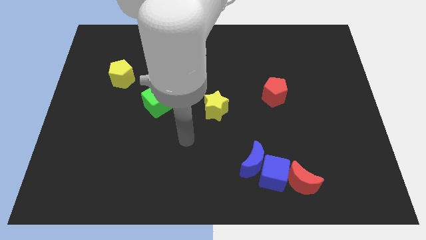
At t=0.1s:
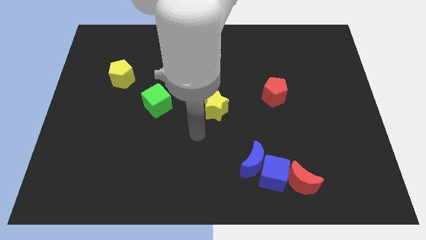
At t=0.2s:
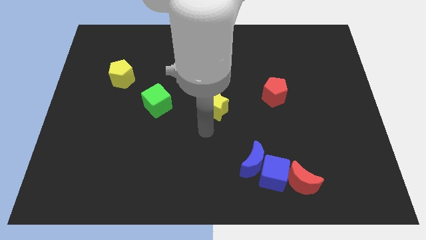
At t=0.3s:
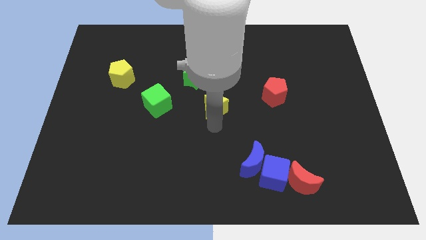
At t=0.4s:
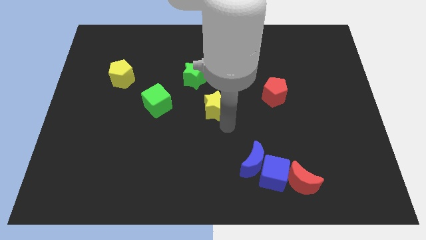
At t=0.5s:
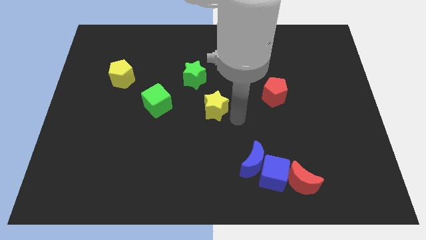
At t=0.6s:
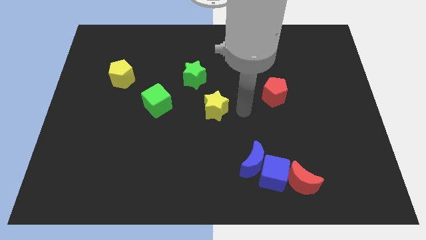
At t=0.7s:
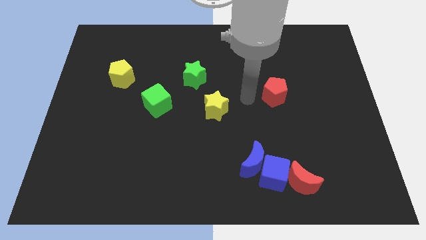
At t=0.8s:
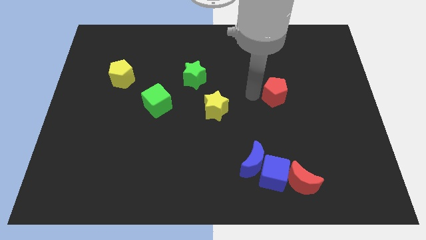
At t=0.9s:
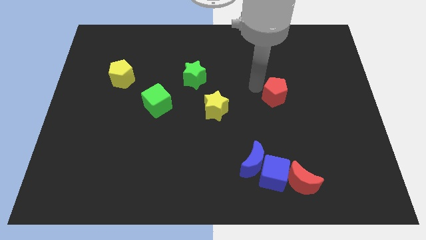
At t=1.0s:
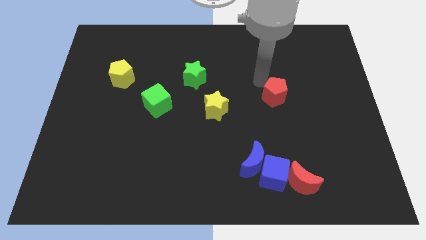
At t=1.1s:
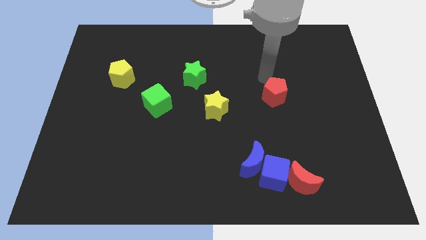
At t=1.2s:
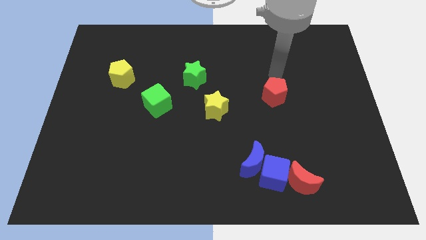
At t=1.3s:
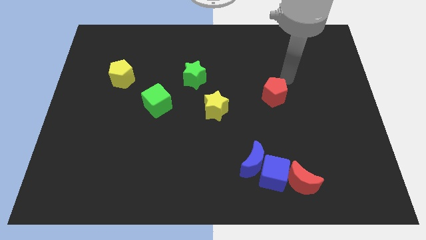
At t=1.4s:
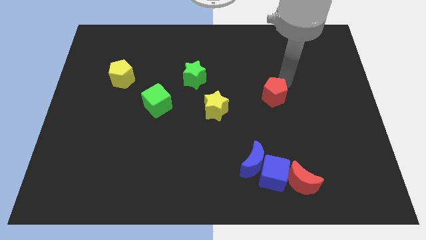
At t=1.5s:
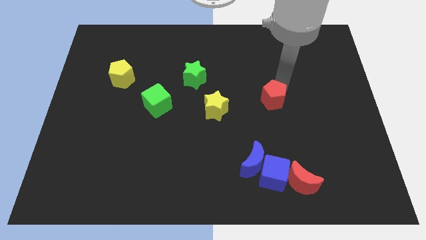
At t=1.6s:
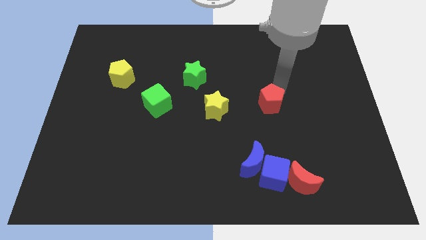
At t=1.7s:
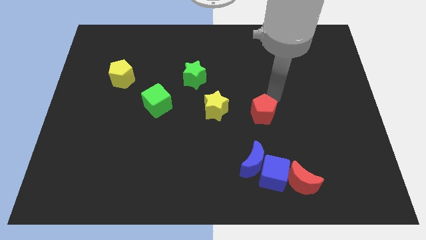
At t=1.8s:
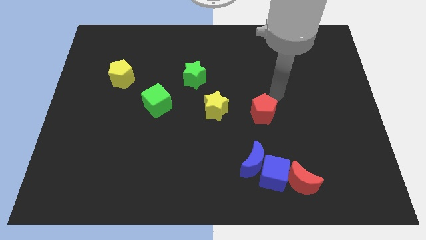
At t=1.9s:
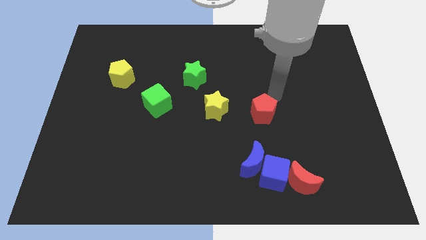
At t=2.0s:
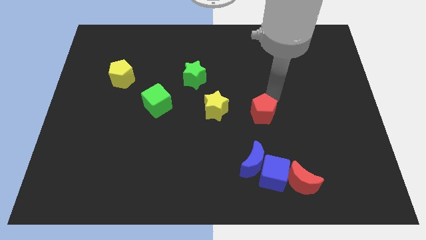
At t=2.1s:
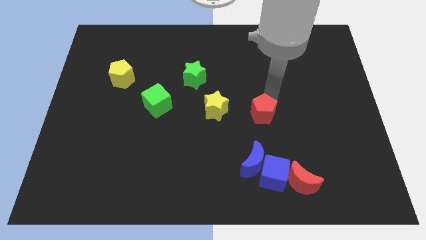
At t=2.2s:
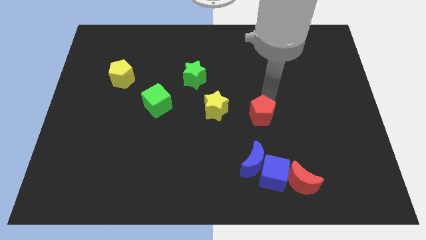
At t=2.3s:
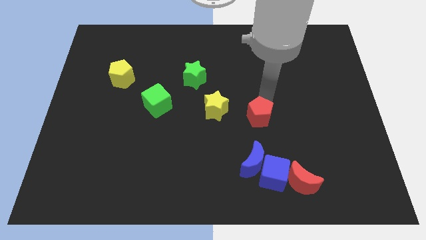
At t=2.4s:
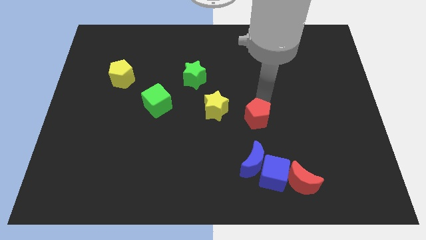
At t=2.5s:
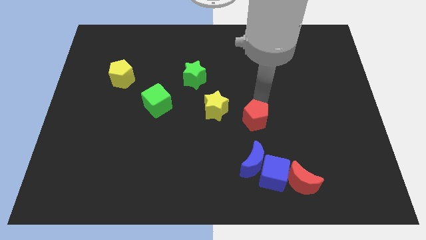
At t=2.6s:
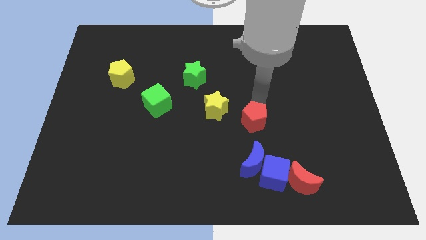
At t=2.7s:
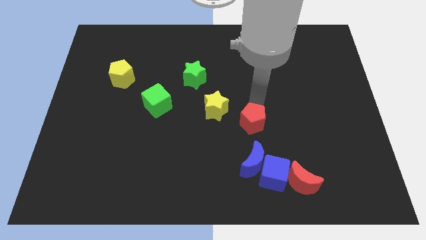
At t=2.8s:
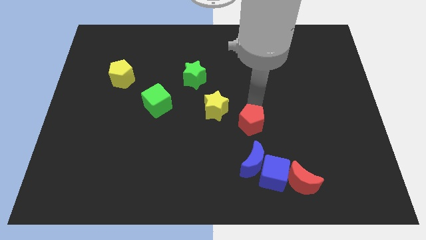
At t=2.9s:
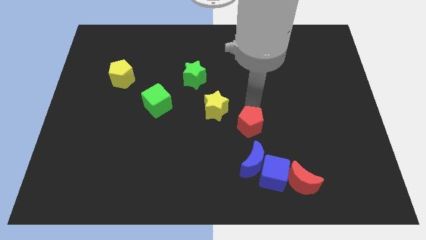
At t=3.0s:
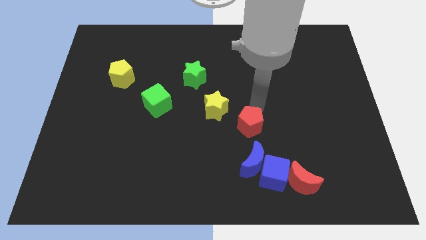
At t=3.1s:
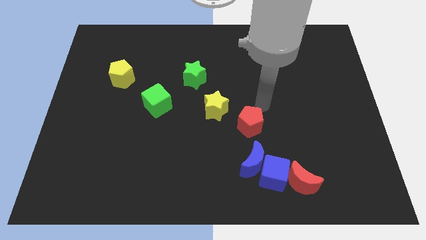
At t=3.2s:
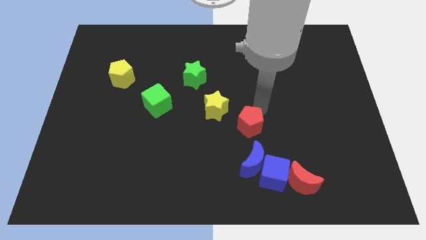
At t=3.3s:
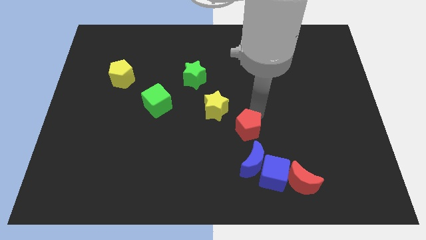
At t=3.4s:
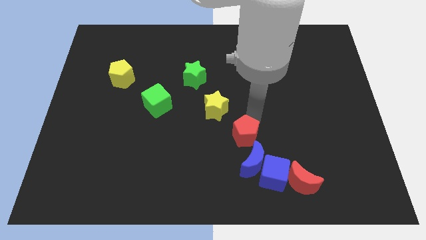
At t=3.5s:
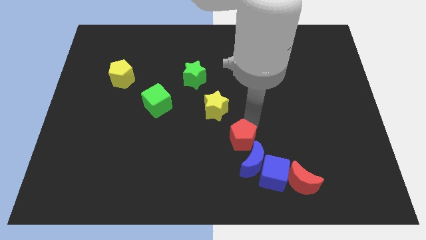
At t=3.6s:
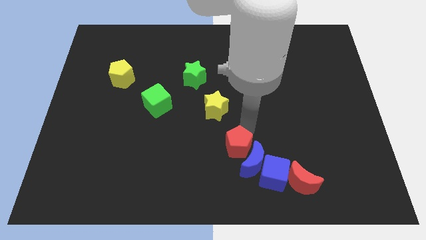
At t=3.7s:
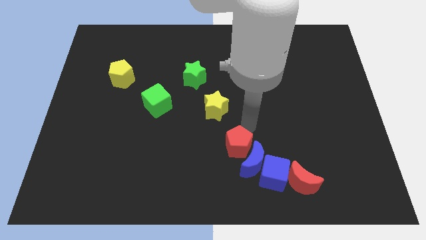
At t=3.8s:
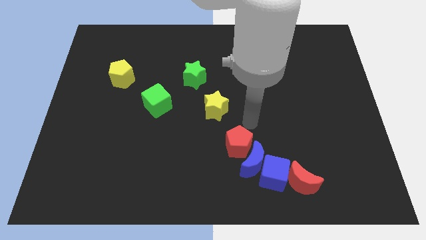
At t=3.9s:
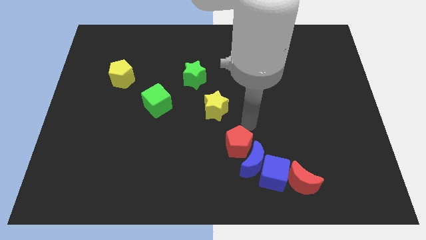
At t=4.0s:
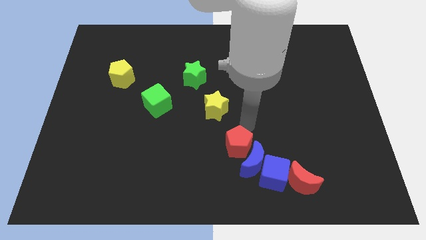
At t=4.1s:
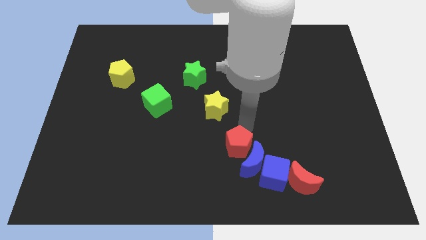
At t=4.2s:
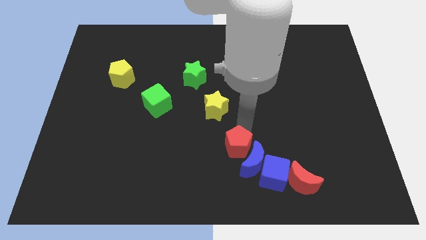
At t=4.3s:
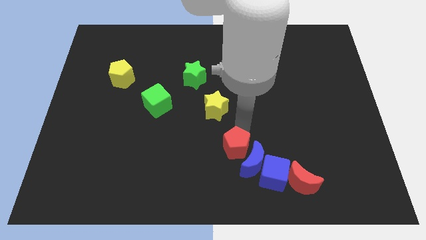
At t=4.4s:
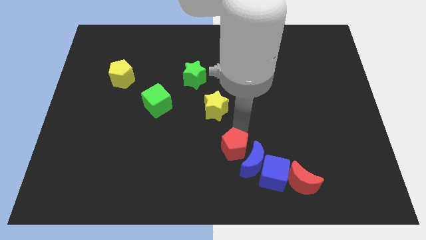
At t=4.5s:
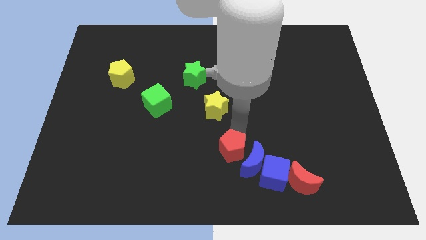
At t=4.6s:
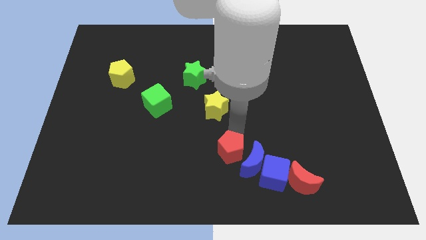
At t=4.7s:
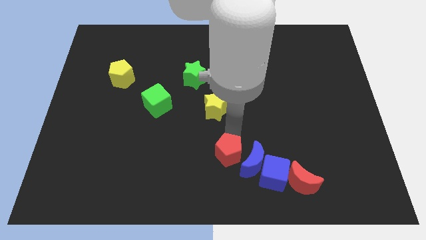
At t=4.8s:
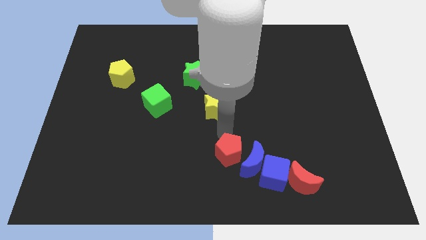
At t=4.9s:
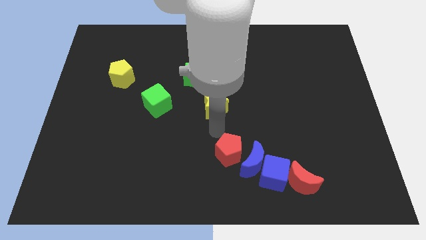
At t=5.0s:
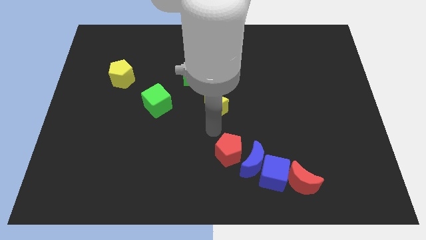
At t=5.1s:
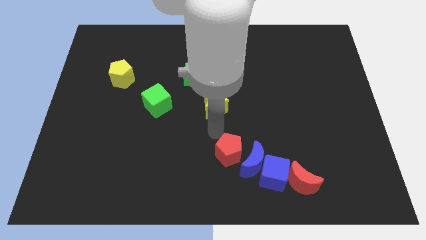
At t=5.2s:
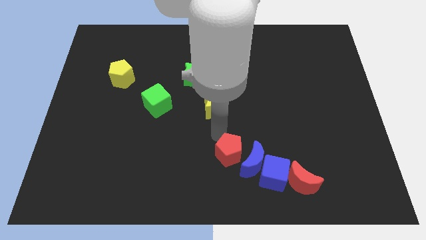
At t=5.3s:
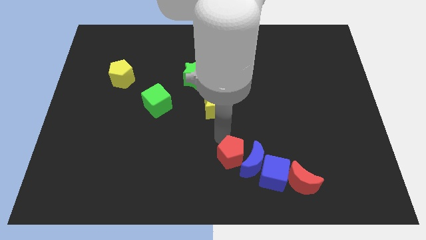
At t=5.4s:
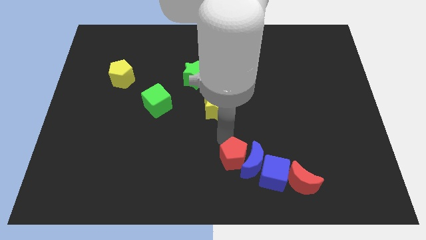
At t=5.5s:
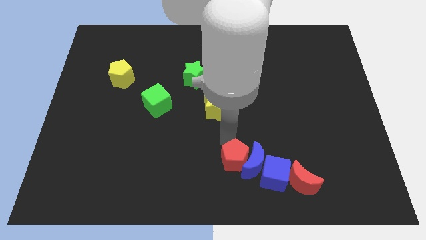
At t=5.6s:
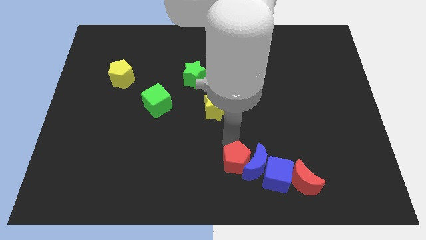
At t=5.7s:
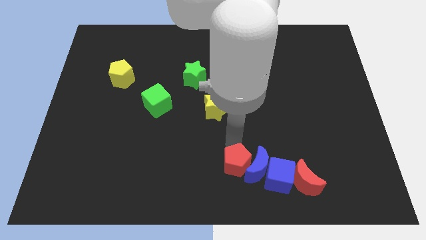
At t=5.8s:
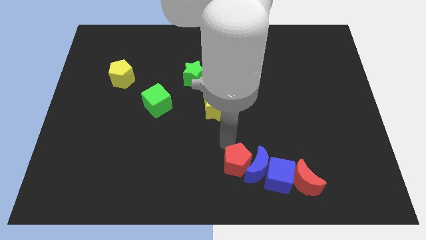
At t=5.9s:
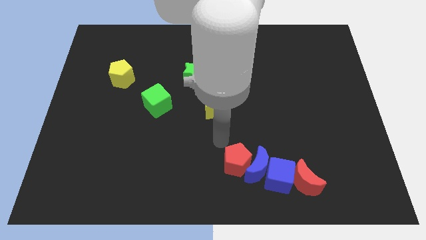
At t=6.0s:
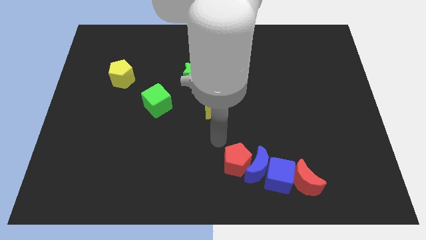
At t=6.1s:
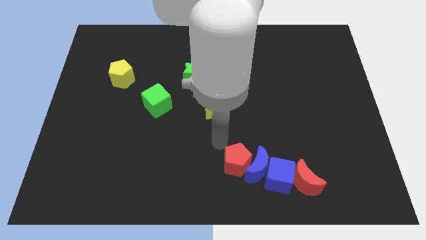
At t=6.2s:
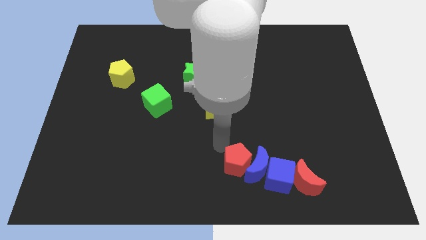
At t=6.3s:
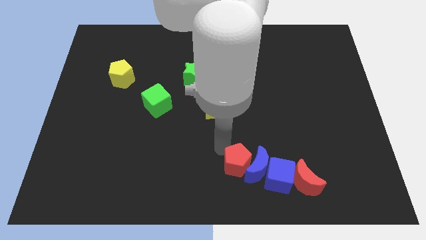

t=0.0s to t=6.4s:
push the red pentagon to the left side of the red moon

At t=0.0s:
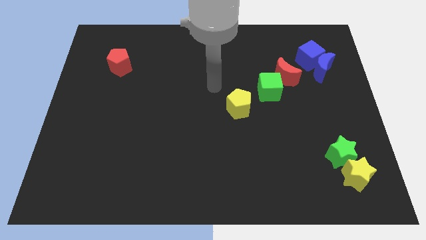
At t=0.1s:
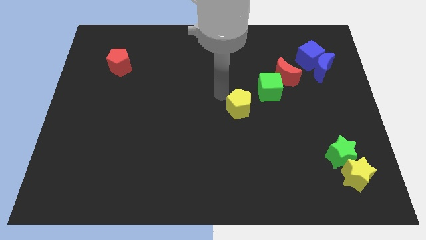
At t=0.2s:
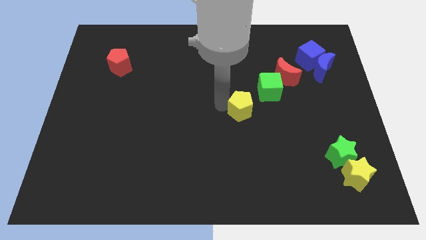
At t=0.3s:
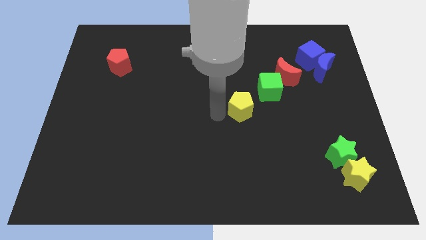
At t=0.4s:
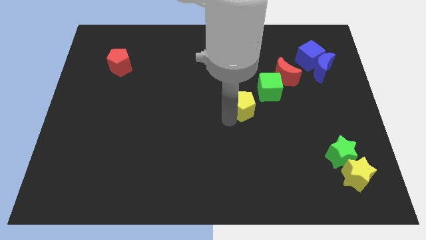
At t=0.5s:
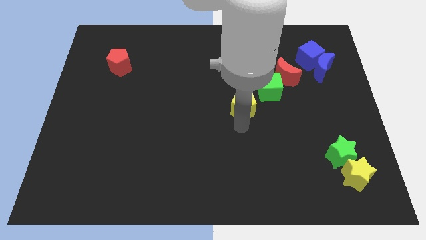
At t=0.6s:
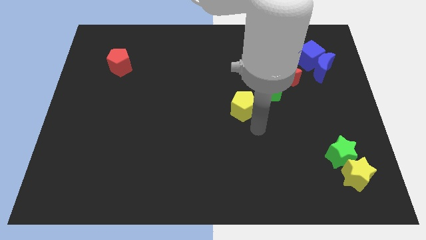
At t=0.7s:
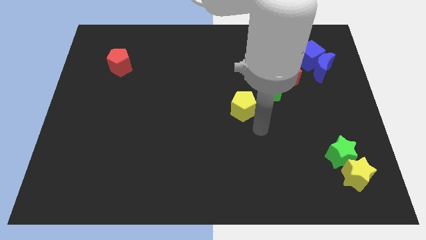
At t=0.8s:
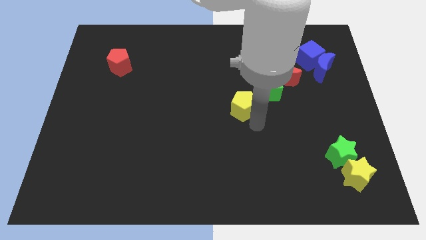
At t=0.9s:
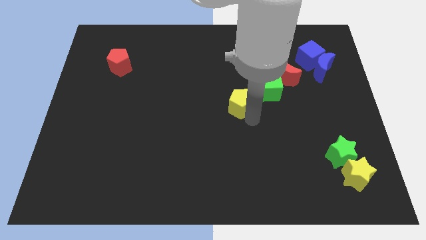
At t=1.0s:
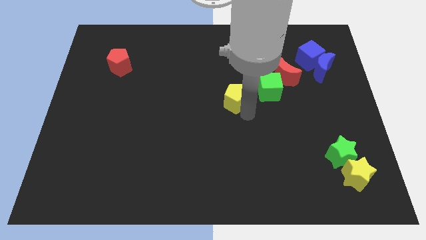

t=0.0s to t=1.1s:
put the yellow pentagon to the left of the green cube

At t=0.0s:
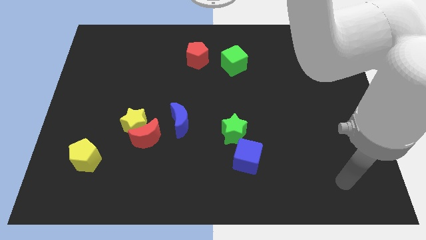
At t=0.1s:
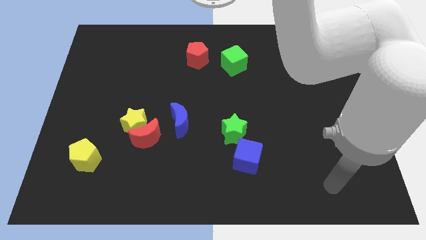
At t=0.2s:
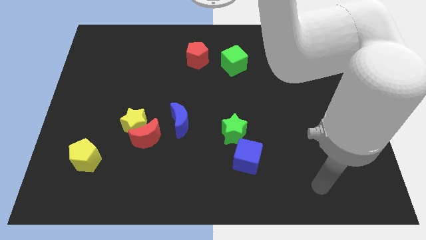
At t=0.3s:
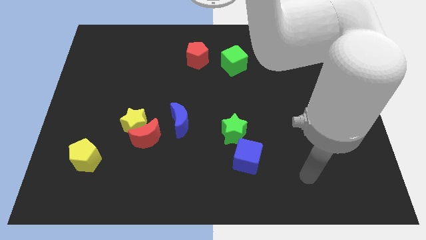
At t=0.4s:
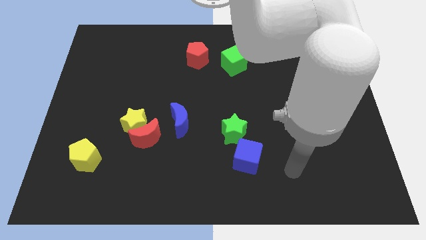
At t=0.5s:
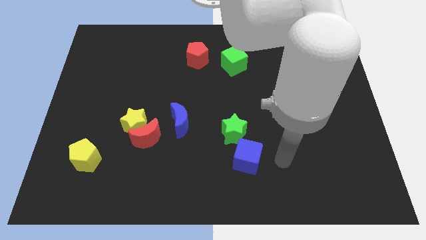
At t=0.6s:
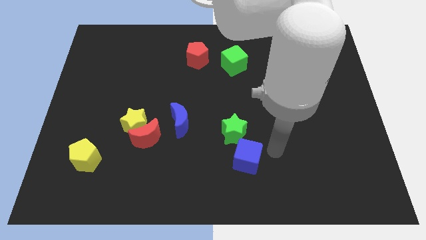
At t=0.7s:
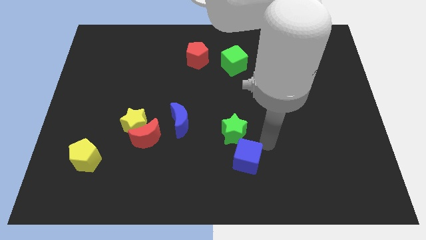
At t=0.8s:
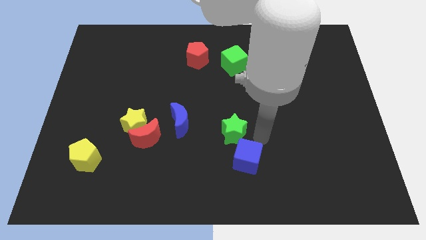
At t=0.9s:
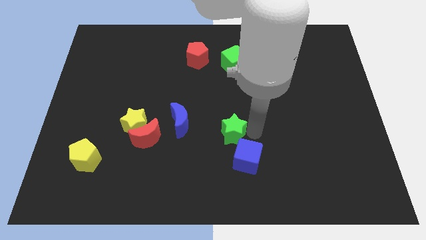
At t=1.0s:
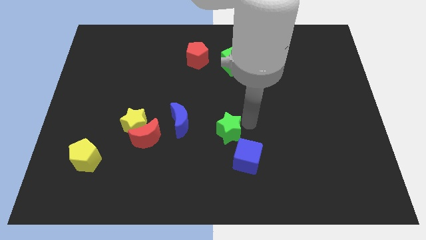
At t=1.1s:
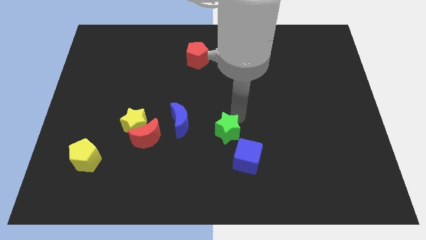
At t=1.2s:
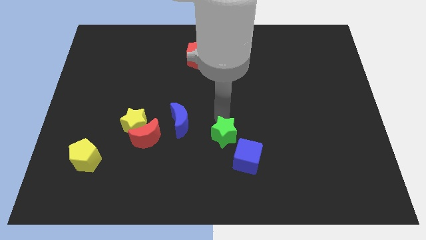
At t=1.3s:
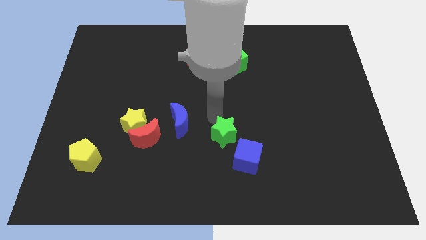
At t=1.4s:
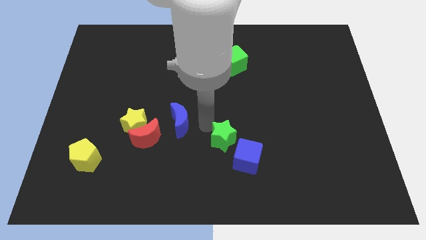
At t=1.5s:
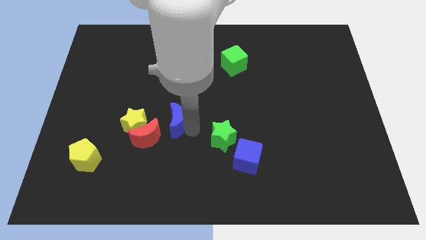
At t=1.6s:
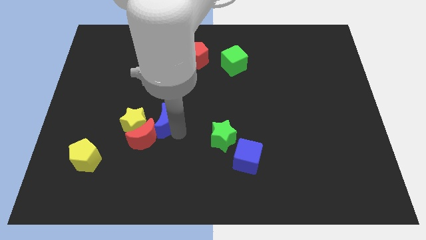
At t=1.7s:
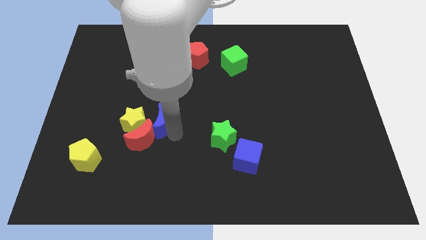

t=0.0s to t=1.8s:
slide the red moon to the bottom left of the yellow star
